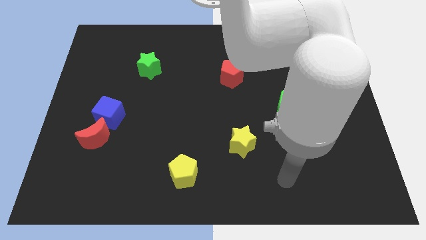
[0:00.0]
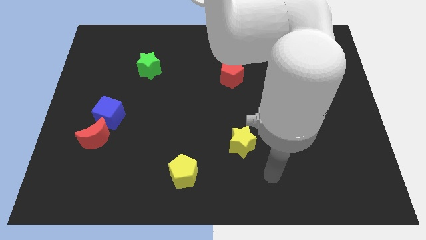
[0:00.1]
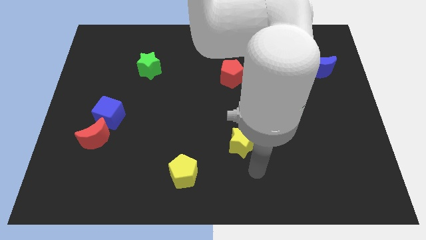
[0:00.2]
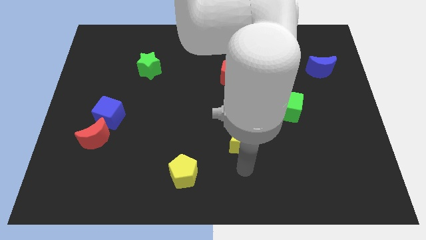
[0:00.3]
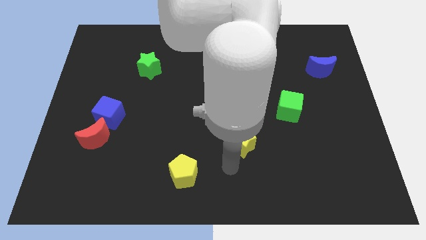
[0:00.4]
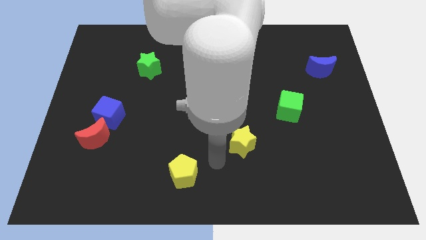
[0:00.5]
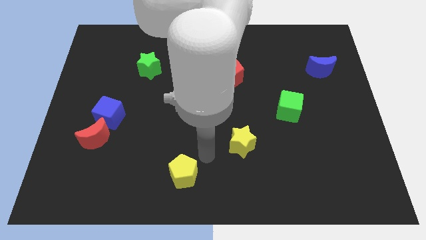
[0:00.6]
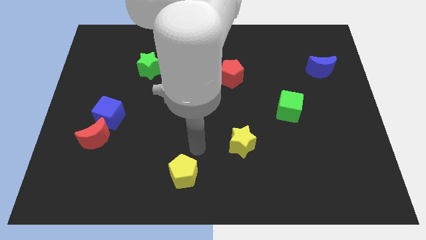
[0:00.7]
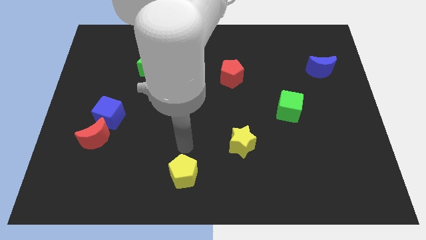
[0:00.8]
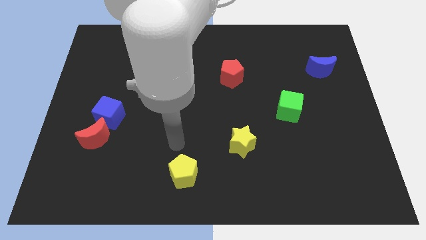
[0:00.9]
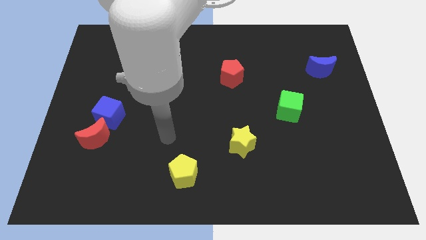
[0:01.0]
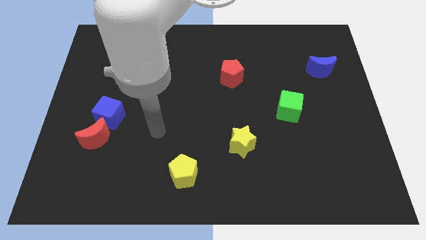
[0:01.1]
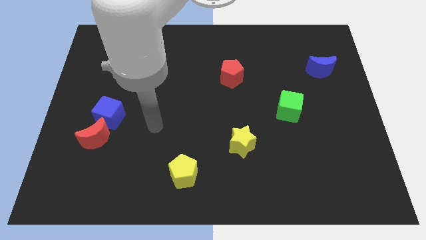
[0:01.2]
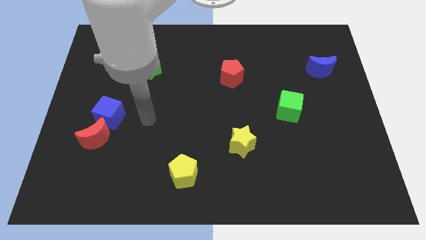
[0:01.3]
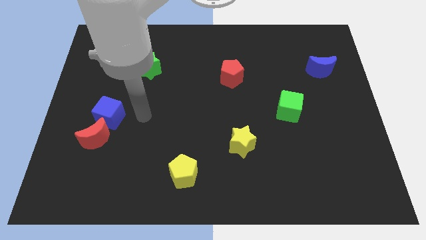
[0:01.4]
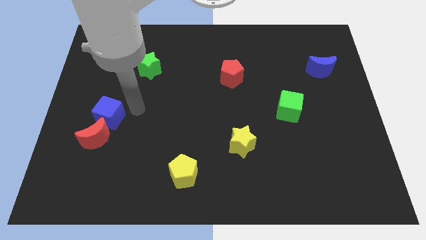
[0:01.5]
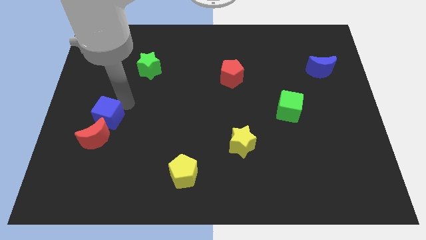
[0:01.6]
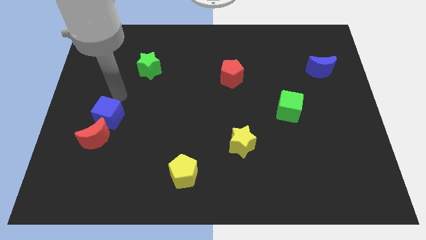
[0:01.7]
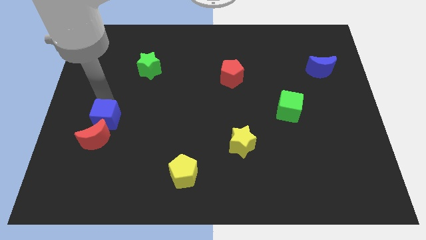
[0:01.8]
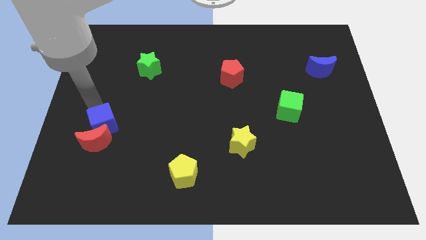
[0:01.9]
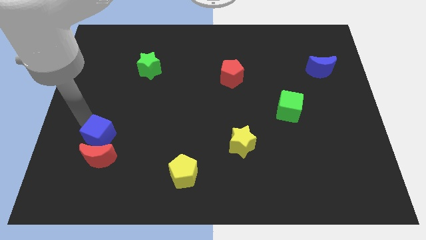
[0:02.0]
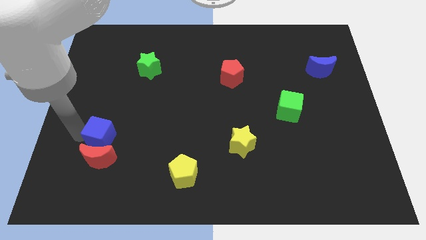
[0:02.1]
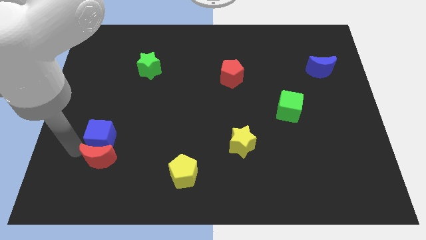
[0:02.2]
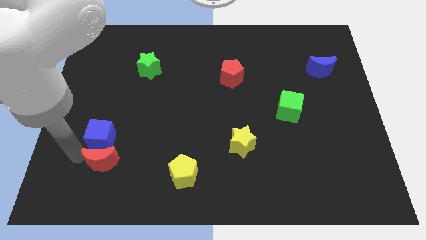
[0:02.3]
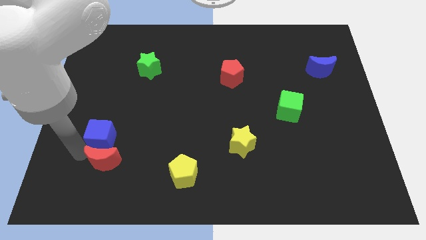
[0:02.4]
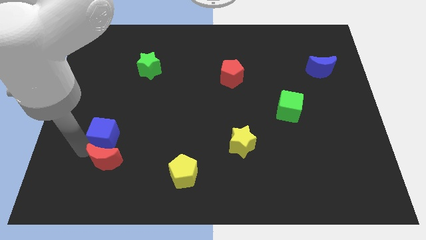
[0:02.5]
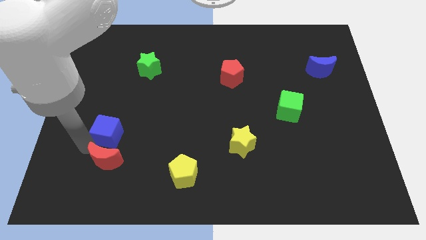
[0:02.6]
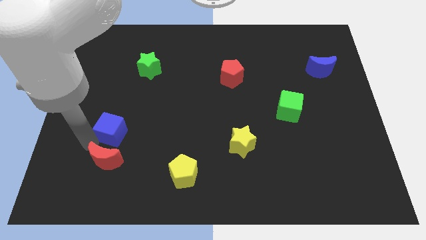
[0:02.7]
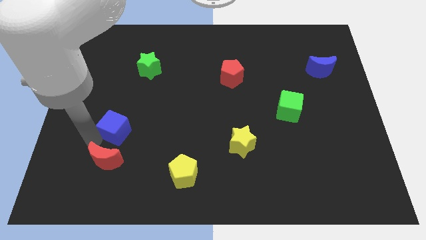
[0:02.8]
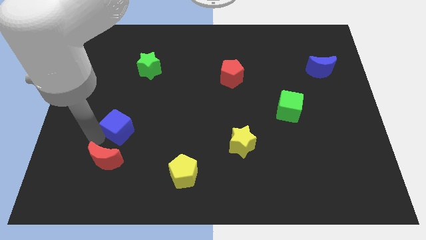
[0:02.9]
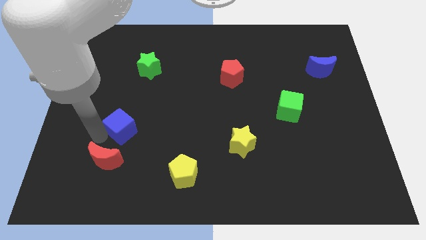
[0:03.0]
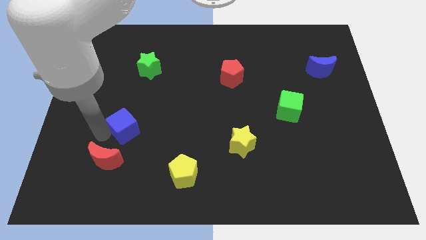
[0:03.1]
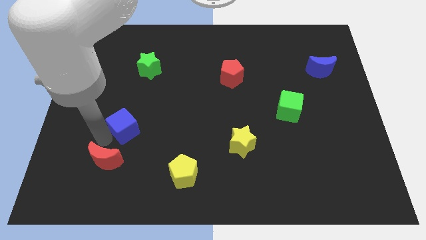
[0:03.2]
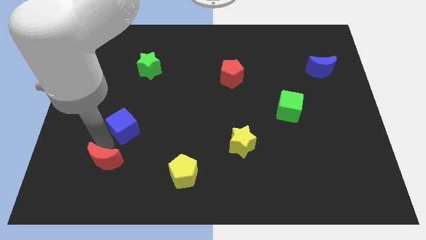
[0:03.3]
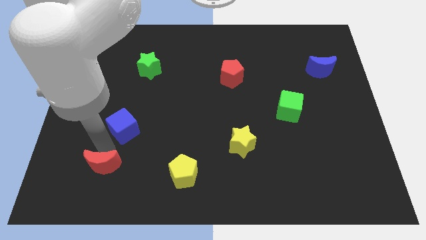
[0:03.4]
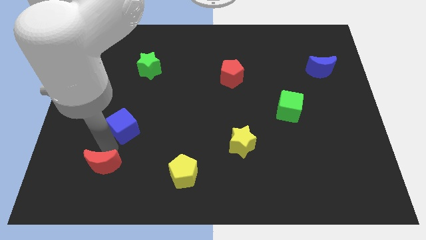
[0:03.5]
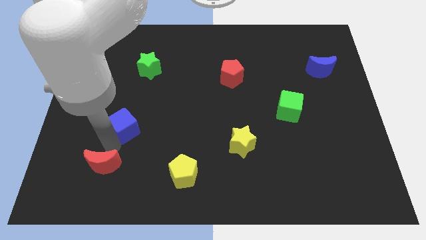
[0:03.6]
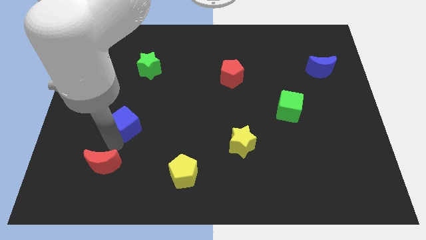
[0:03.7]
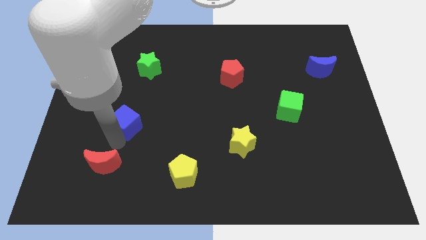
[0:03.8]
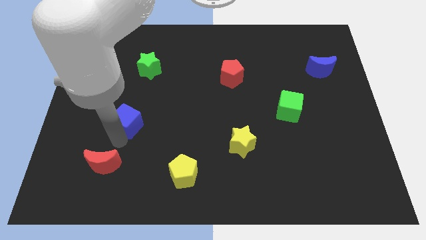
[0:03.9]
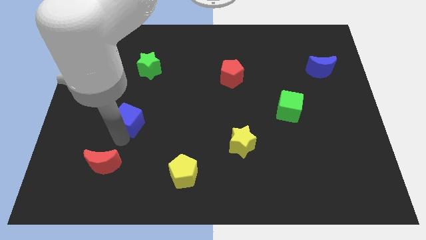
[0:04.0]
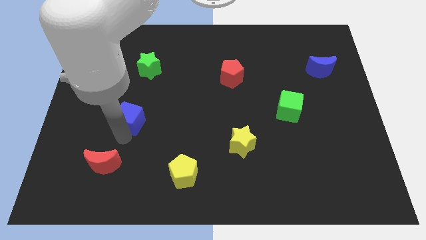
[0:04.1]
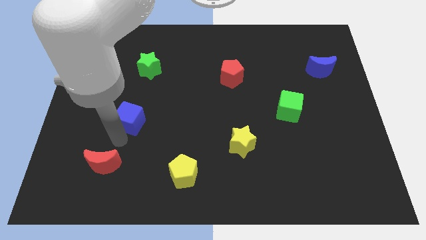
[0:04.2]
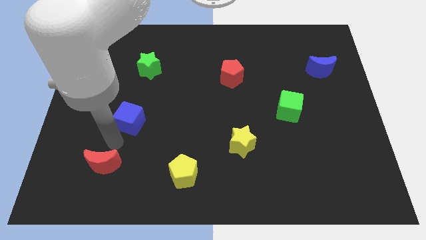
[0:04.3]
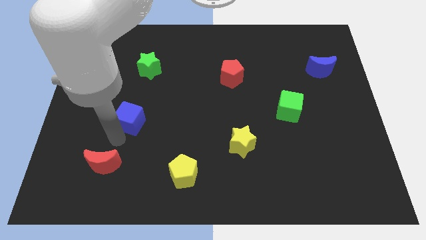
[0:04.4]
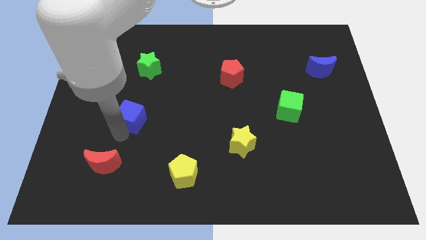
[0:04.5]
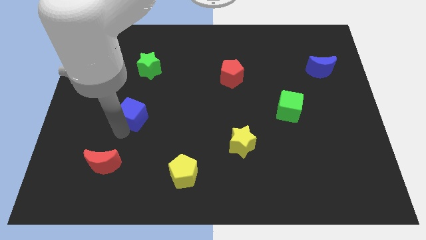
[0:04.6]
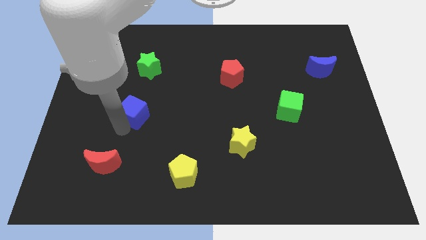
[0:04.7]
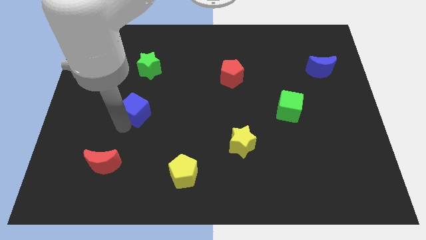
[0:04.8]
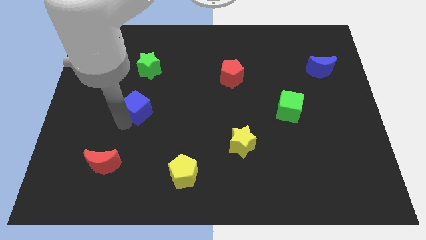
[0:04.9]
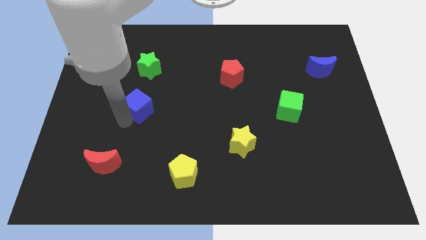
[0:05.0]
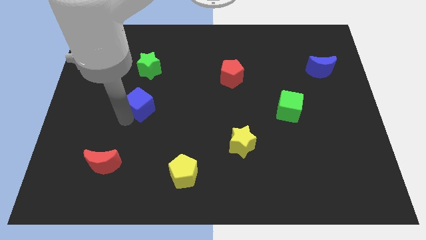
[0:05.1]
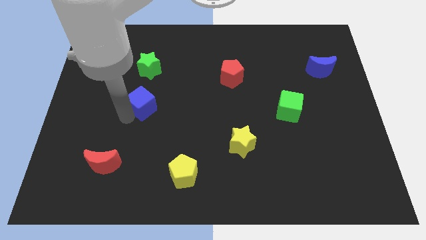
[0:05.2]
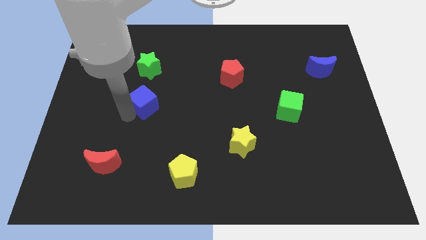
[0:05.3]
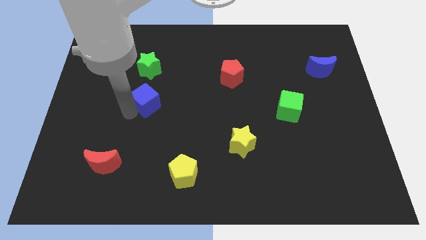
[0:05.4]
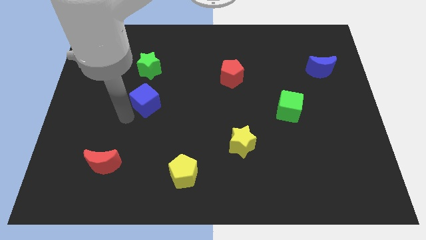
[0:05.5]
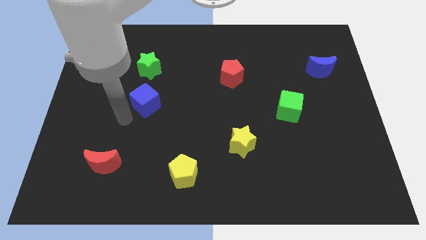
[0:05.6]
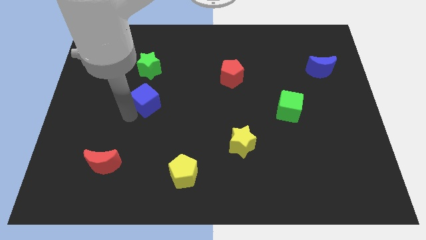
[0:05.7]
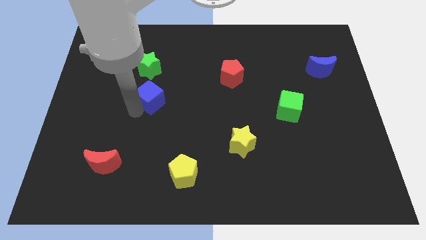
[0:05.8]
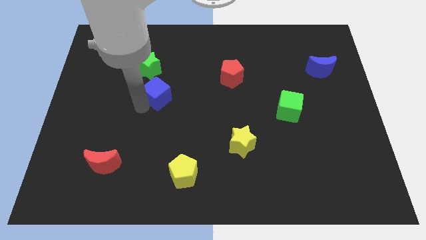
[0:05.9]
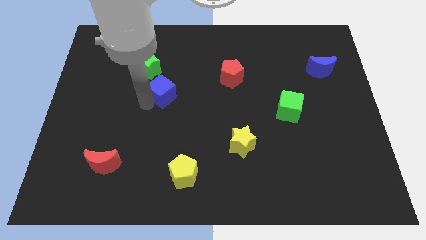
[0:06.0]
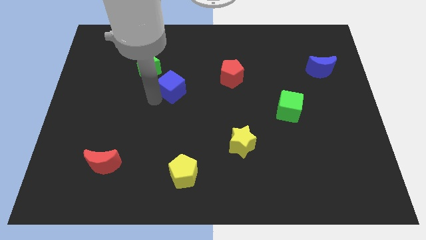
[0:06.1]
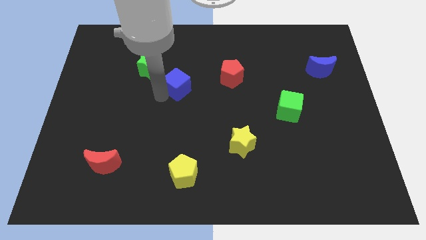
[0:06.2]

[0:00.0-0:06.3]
move the blue cube just left of the red pentagon

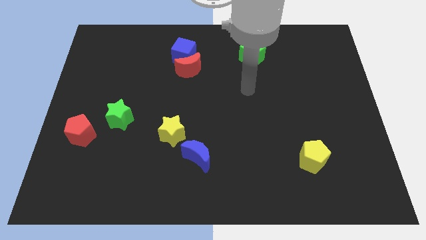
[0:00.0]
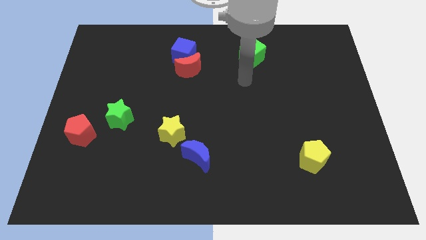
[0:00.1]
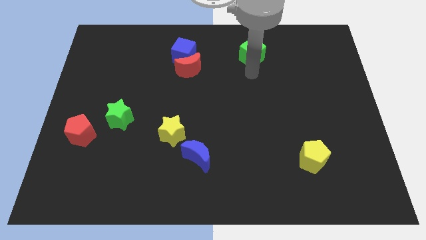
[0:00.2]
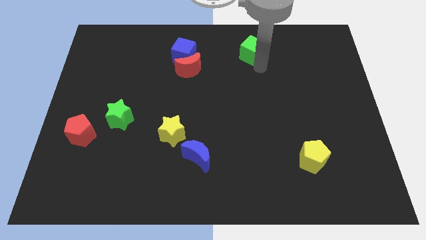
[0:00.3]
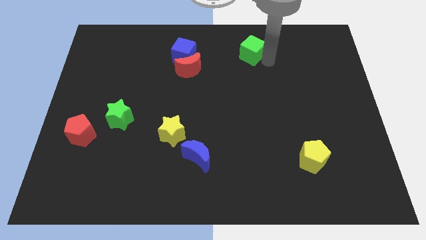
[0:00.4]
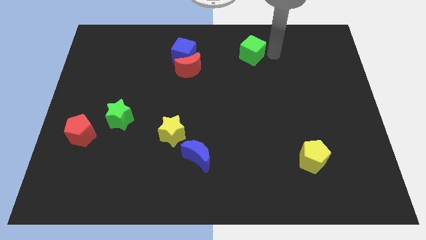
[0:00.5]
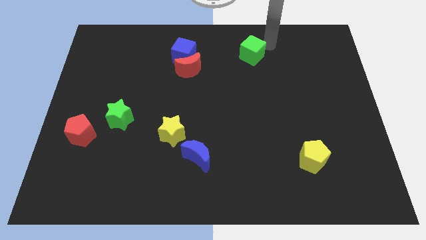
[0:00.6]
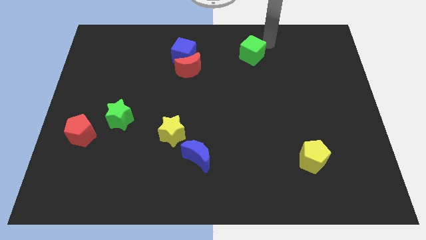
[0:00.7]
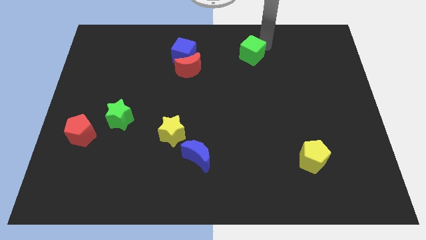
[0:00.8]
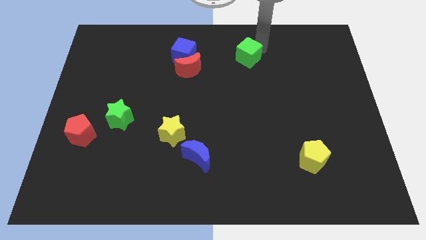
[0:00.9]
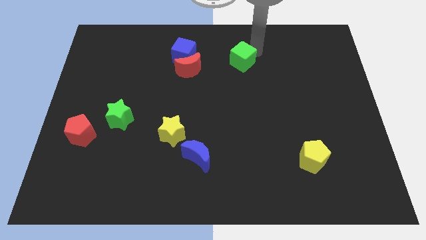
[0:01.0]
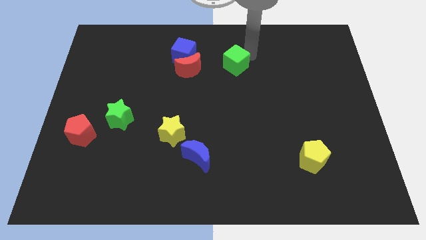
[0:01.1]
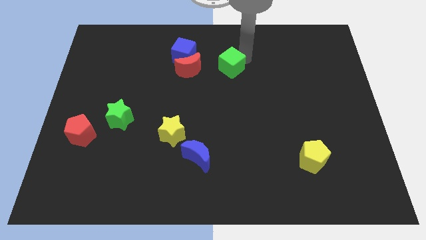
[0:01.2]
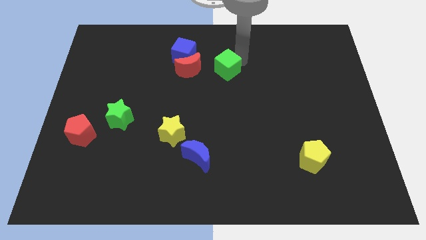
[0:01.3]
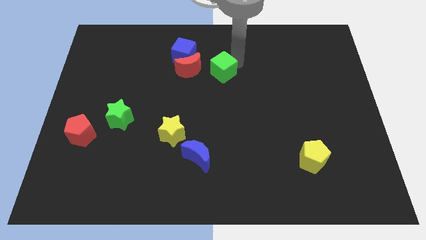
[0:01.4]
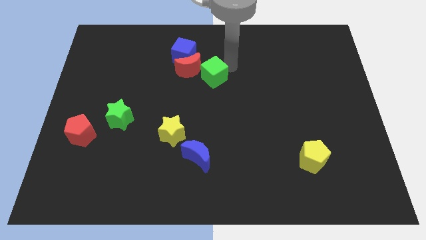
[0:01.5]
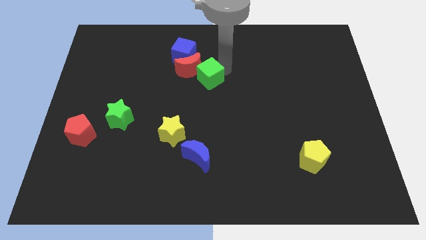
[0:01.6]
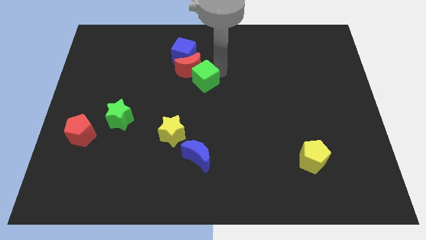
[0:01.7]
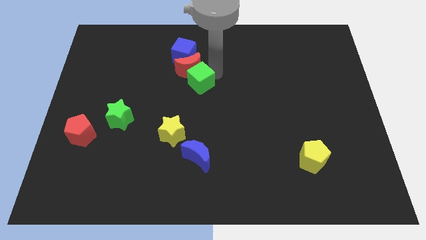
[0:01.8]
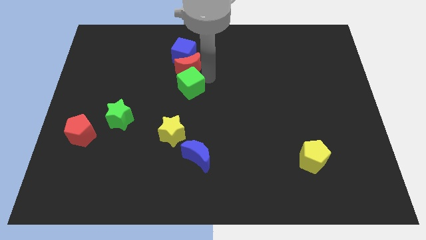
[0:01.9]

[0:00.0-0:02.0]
put the green cube above the yellow star
